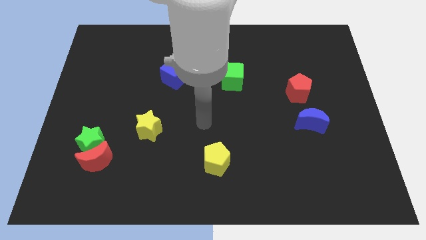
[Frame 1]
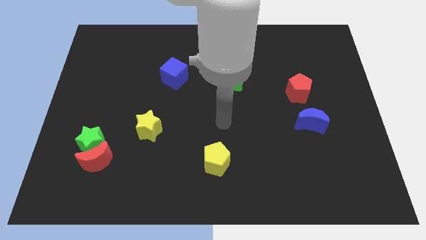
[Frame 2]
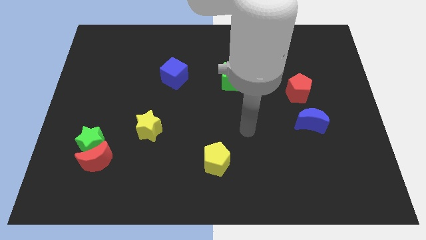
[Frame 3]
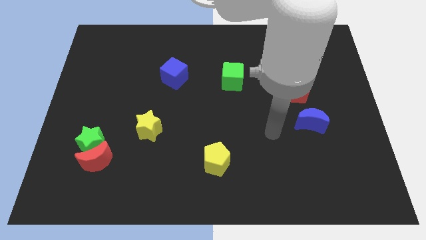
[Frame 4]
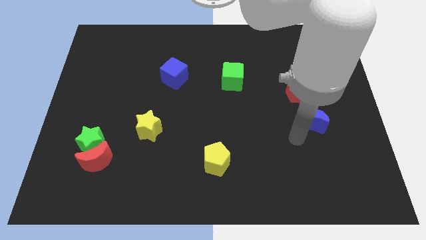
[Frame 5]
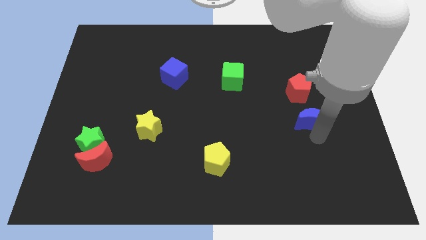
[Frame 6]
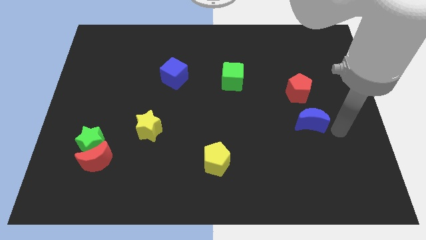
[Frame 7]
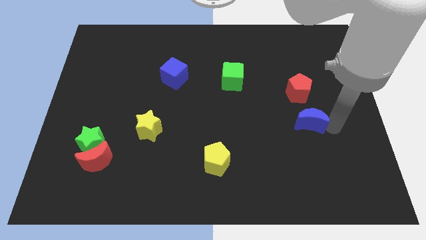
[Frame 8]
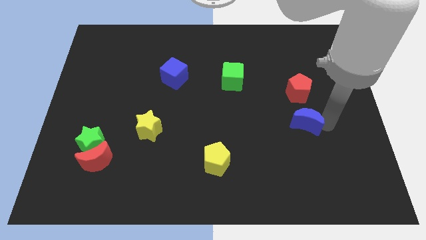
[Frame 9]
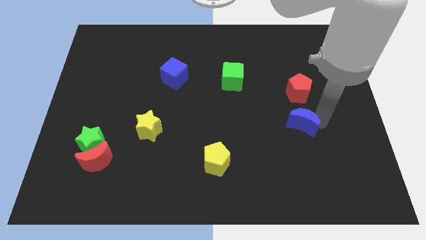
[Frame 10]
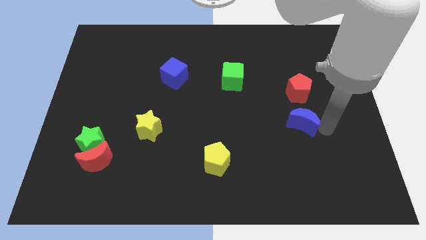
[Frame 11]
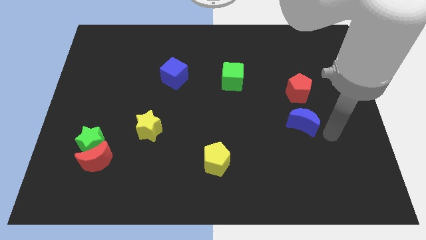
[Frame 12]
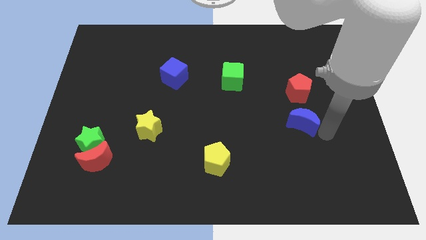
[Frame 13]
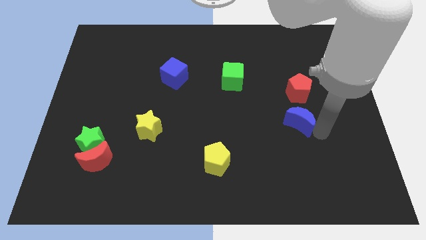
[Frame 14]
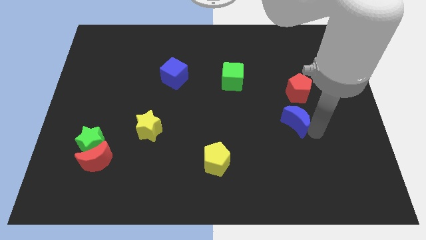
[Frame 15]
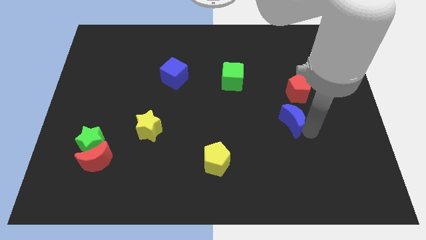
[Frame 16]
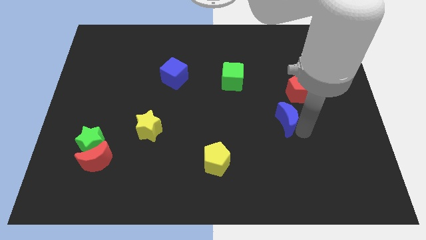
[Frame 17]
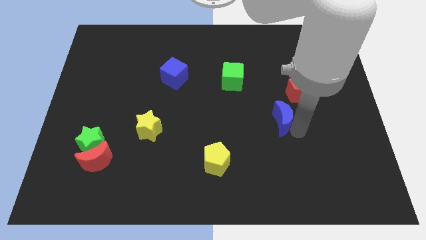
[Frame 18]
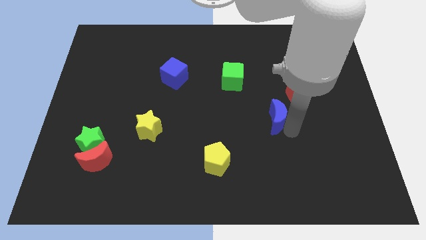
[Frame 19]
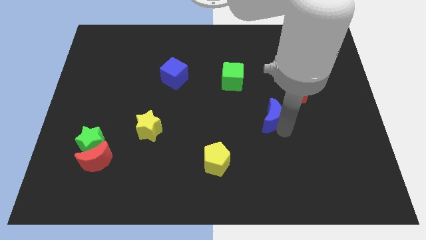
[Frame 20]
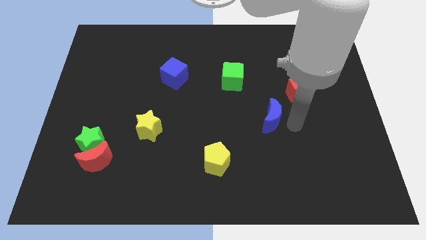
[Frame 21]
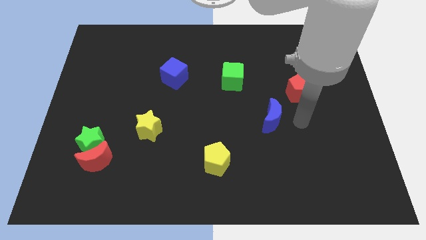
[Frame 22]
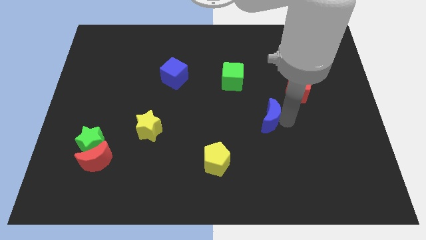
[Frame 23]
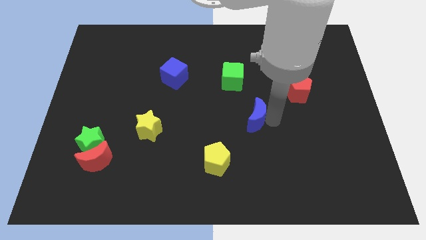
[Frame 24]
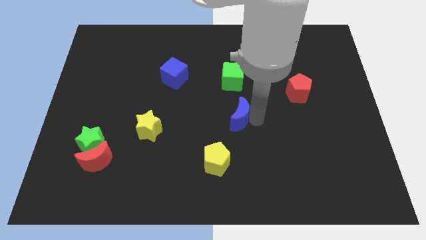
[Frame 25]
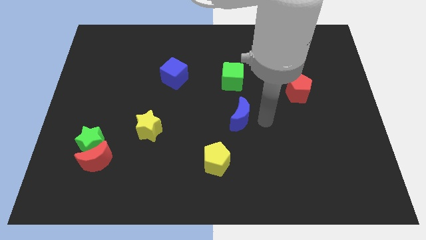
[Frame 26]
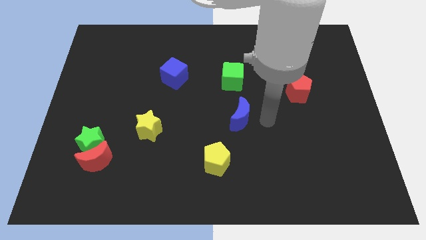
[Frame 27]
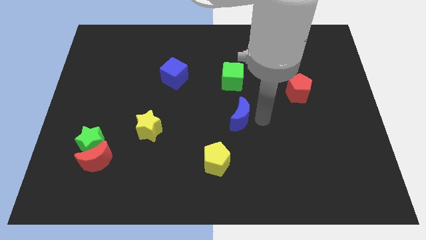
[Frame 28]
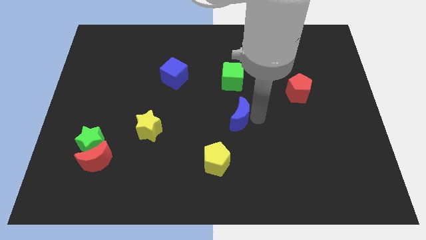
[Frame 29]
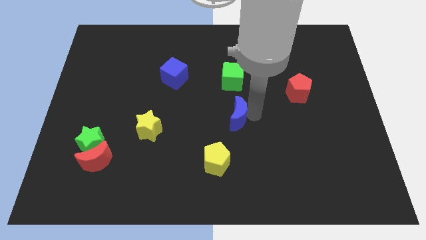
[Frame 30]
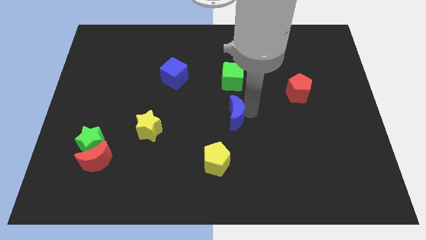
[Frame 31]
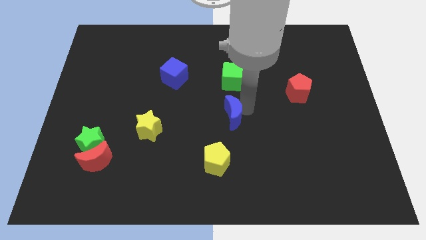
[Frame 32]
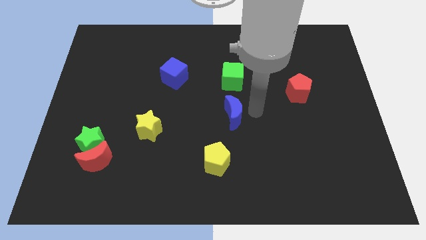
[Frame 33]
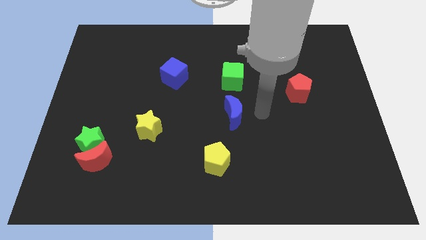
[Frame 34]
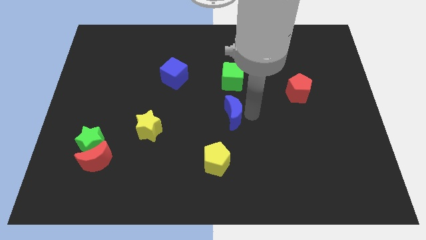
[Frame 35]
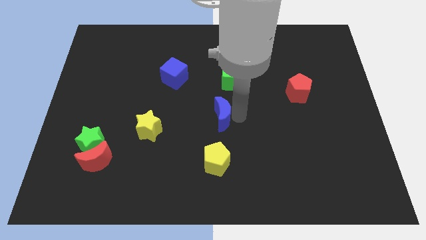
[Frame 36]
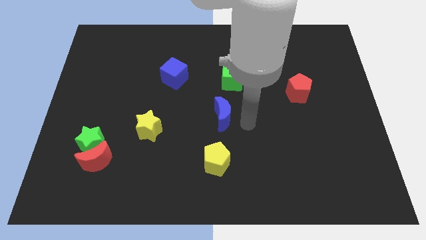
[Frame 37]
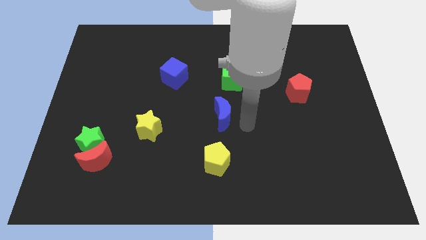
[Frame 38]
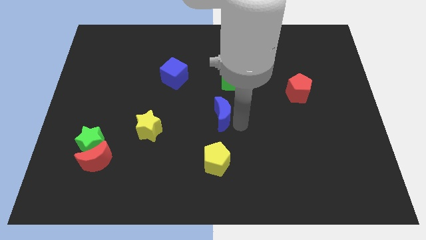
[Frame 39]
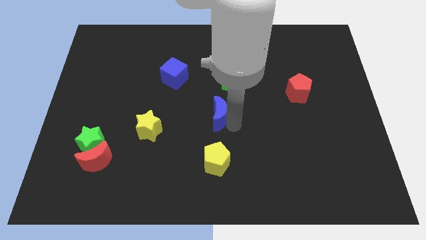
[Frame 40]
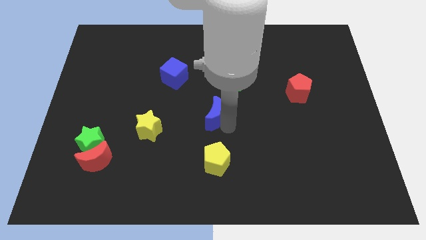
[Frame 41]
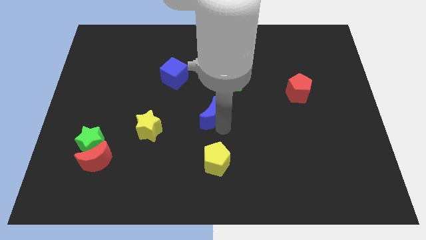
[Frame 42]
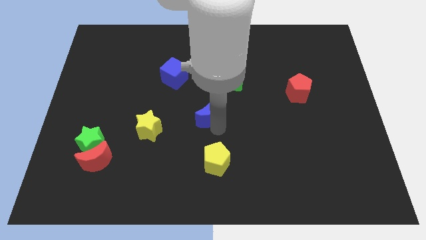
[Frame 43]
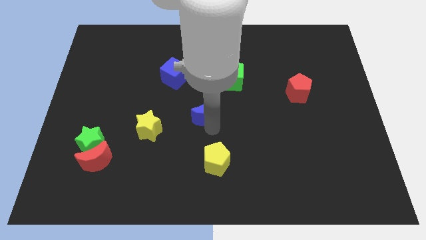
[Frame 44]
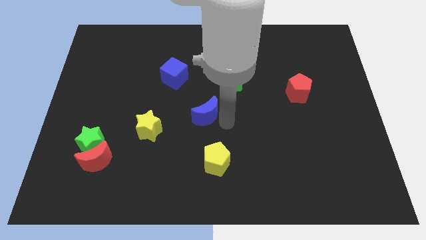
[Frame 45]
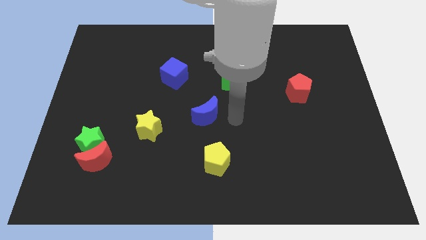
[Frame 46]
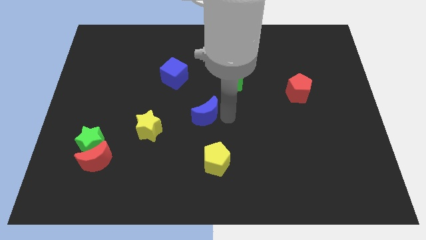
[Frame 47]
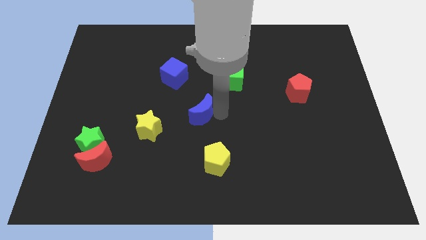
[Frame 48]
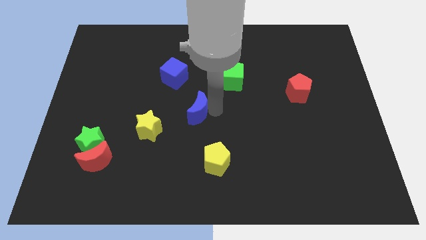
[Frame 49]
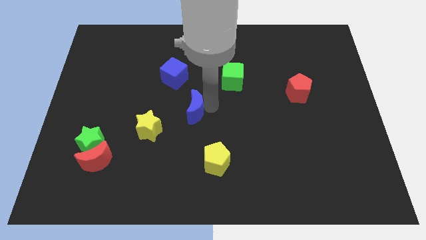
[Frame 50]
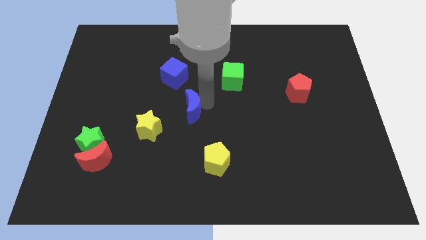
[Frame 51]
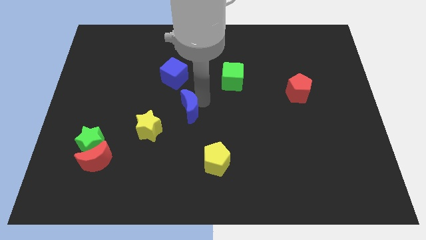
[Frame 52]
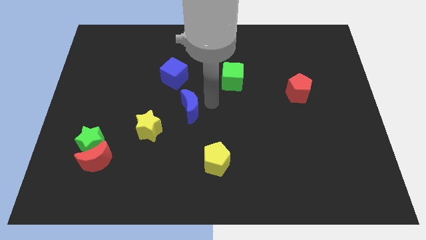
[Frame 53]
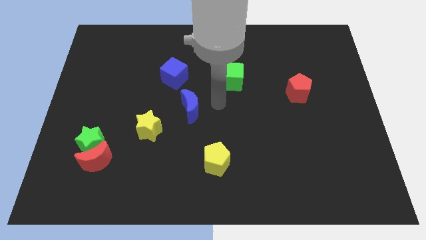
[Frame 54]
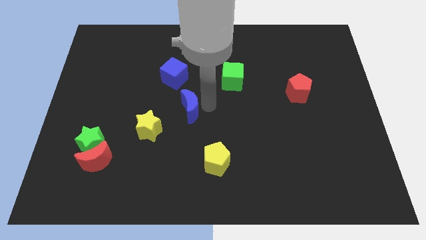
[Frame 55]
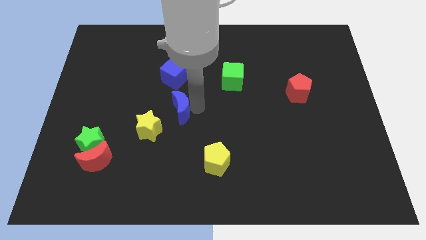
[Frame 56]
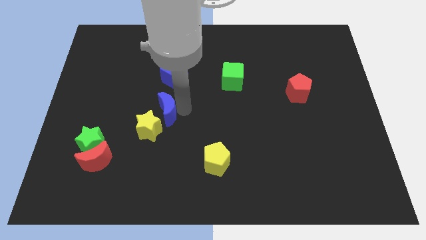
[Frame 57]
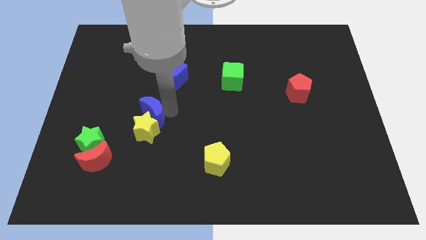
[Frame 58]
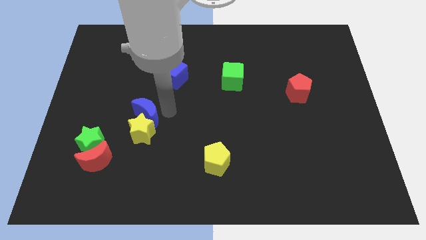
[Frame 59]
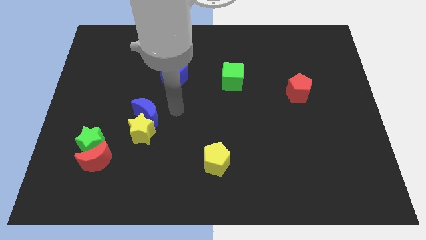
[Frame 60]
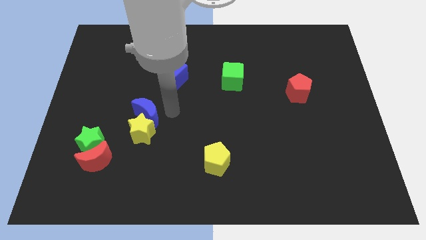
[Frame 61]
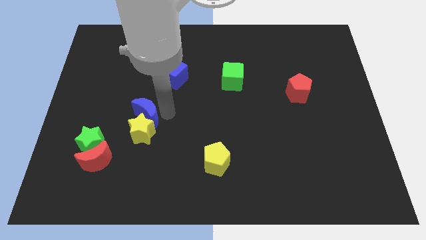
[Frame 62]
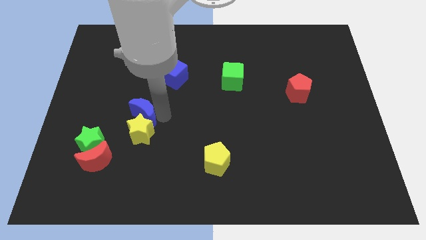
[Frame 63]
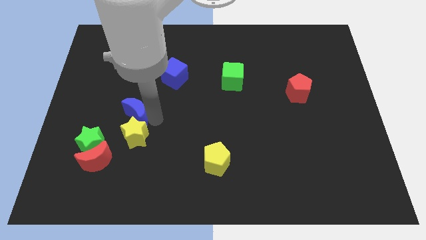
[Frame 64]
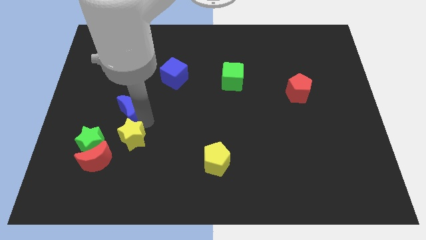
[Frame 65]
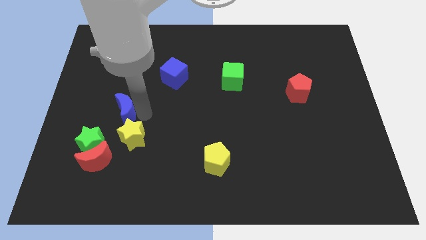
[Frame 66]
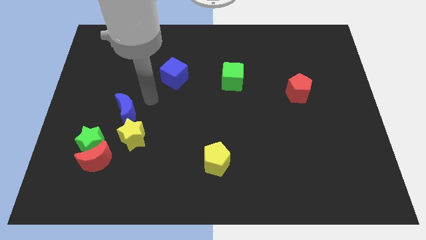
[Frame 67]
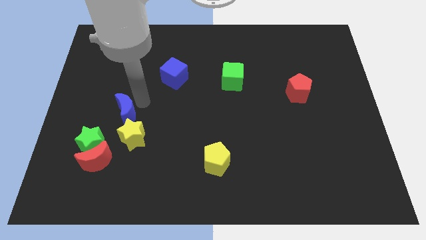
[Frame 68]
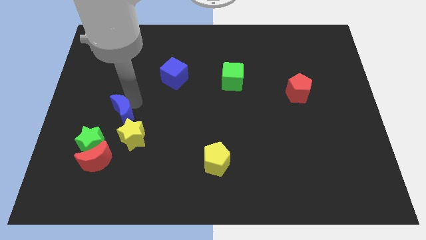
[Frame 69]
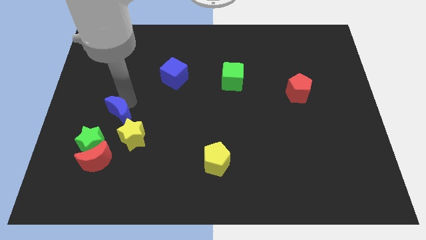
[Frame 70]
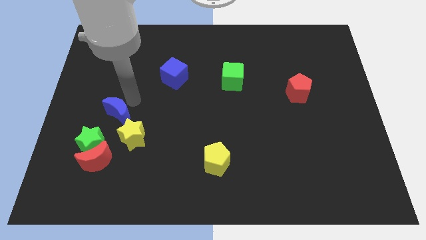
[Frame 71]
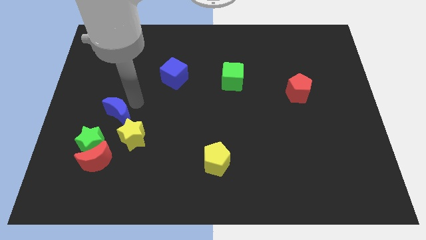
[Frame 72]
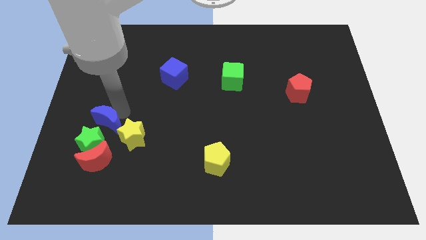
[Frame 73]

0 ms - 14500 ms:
put the blue moon left of the yellow star
